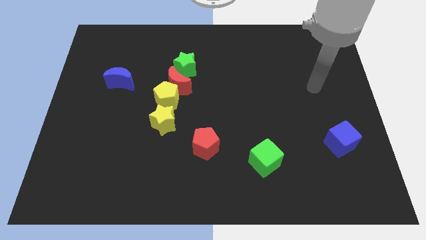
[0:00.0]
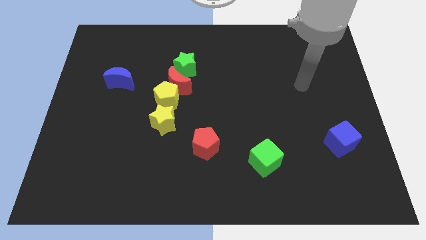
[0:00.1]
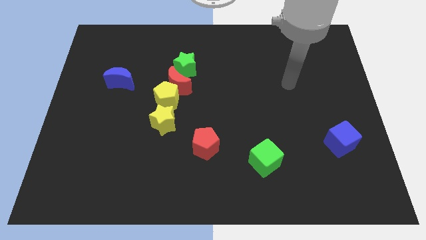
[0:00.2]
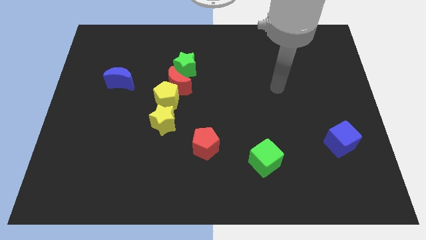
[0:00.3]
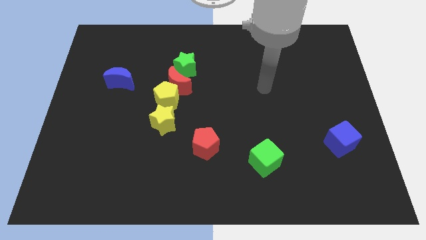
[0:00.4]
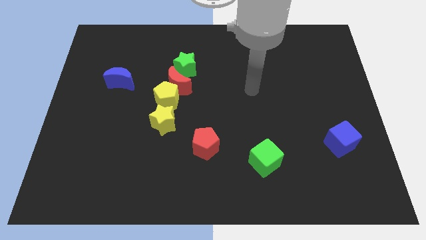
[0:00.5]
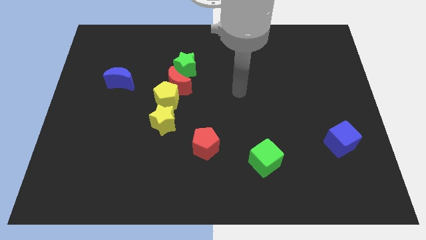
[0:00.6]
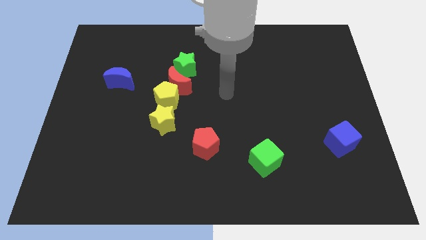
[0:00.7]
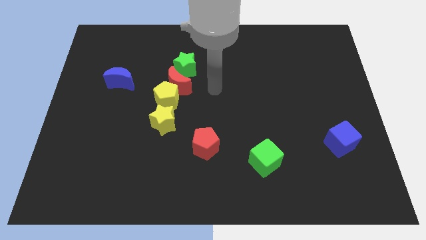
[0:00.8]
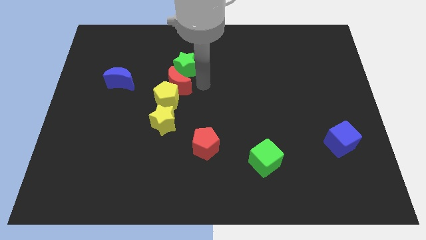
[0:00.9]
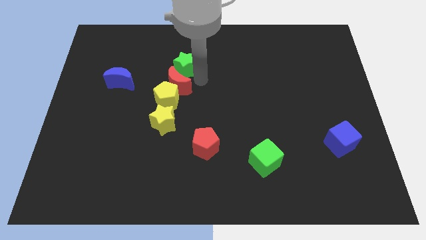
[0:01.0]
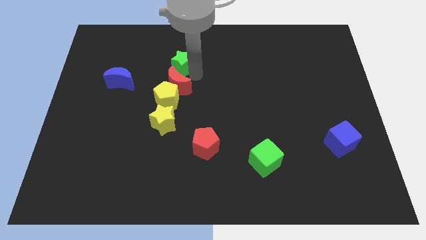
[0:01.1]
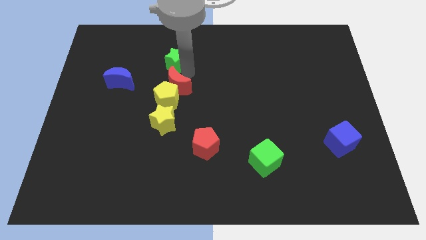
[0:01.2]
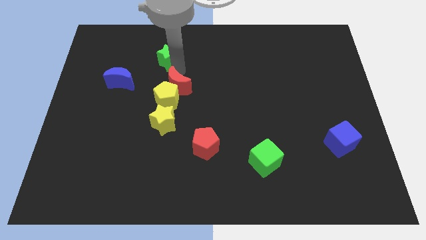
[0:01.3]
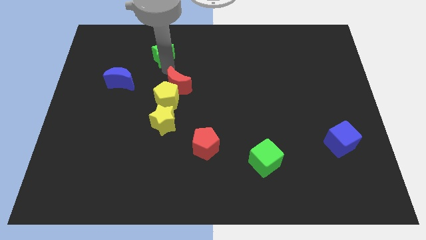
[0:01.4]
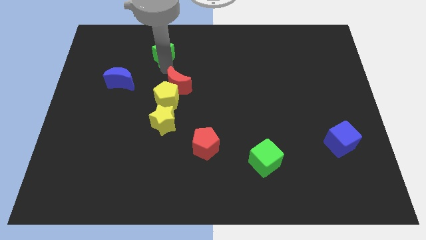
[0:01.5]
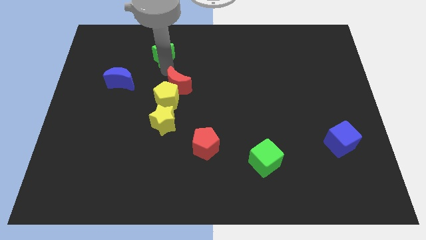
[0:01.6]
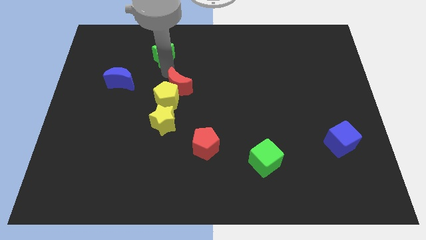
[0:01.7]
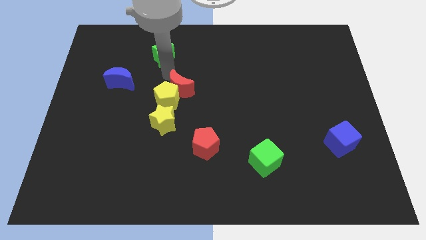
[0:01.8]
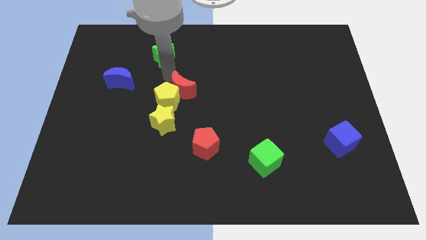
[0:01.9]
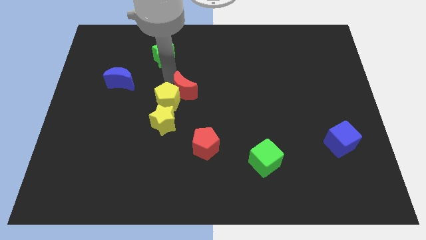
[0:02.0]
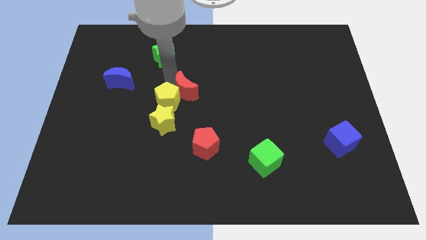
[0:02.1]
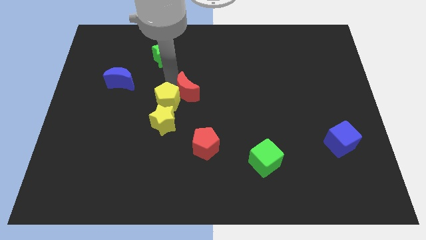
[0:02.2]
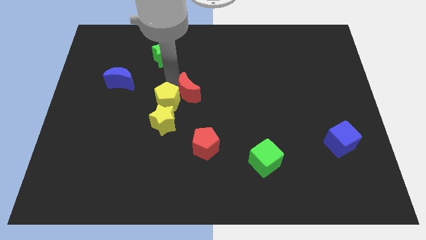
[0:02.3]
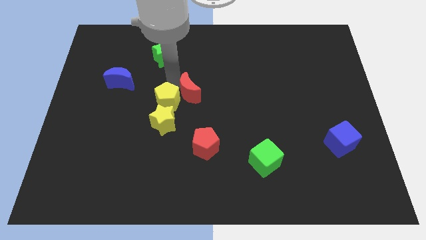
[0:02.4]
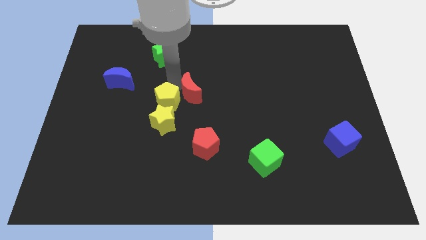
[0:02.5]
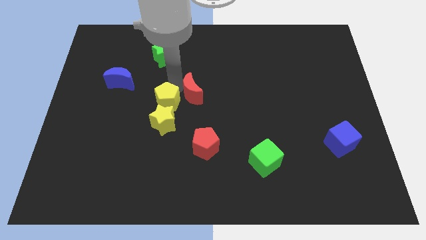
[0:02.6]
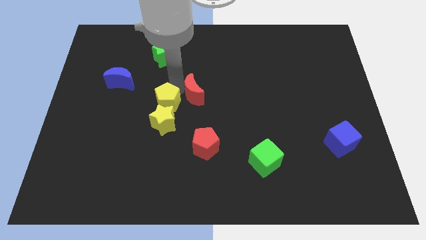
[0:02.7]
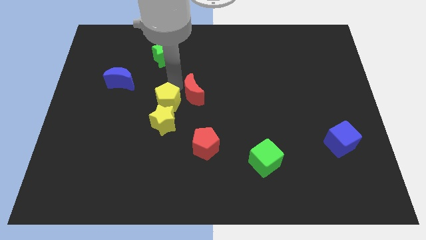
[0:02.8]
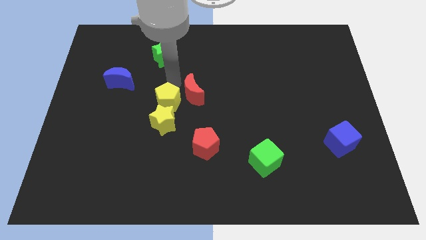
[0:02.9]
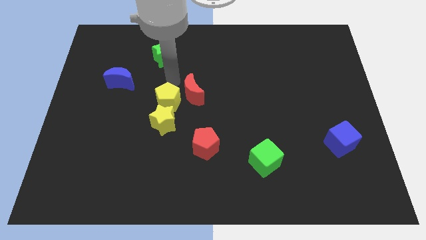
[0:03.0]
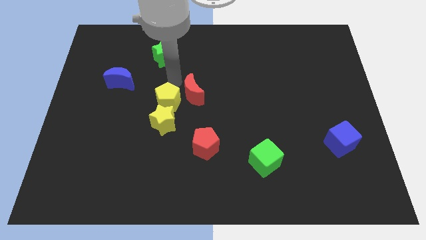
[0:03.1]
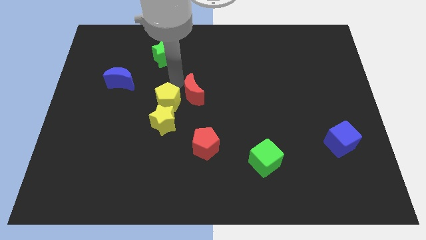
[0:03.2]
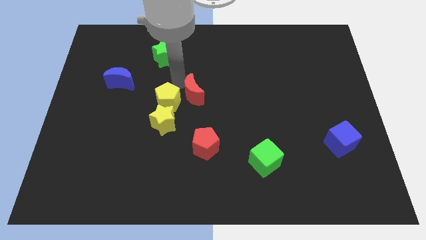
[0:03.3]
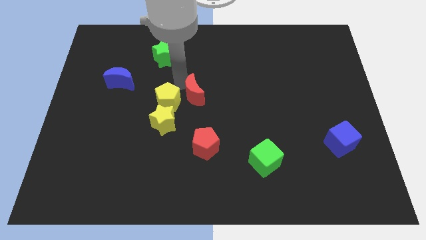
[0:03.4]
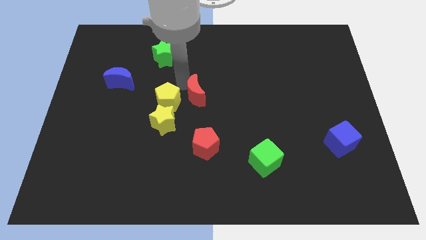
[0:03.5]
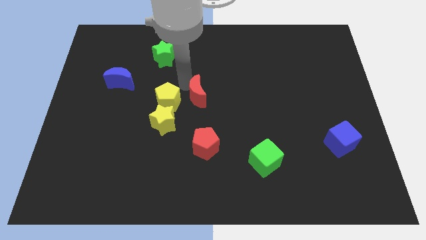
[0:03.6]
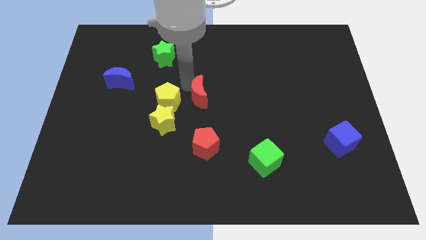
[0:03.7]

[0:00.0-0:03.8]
separate the red moon from the yellow pentagon and green star

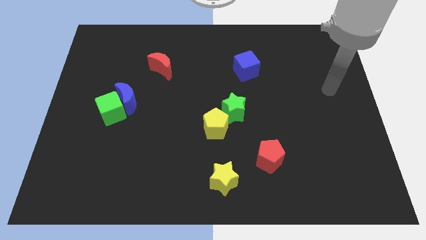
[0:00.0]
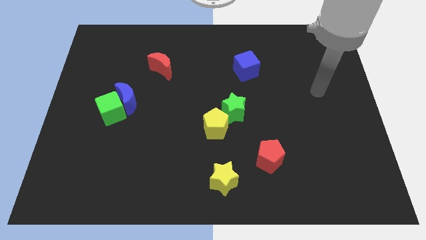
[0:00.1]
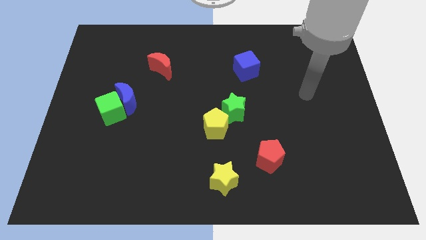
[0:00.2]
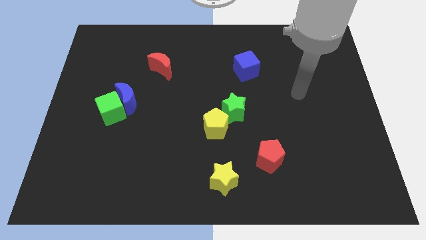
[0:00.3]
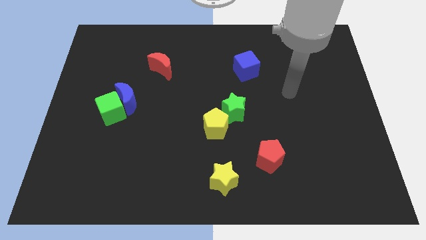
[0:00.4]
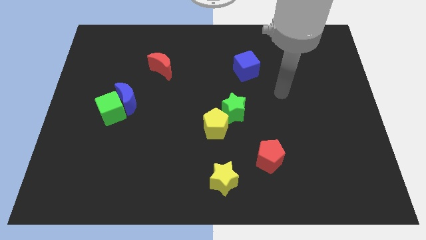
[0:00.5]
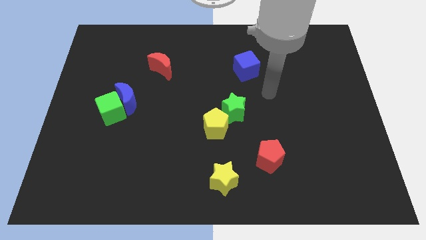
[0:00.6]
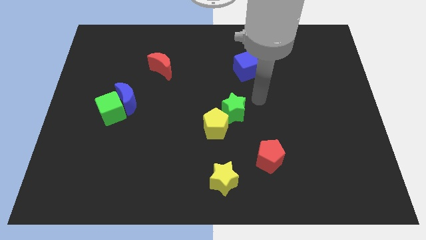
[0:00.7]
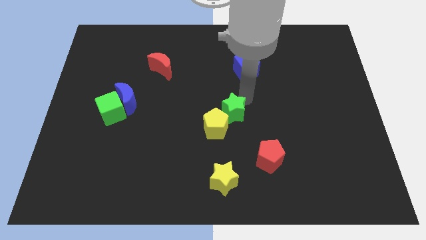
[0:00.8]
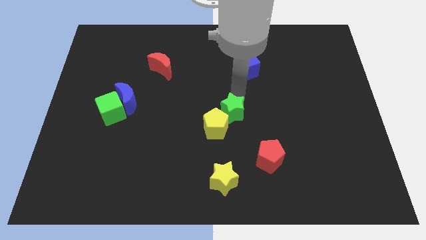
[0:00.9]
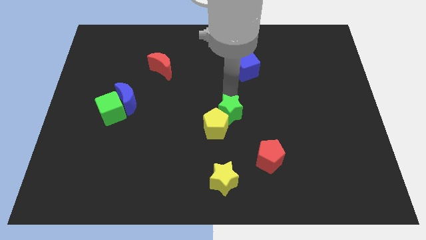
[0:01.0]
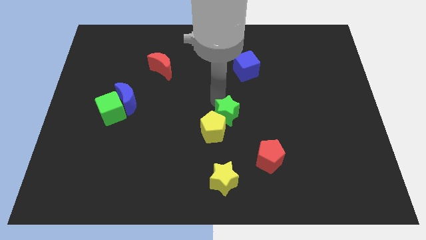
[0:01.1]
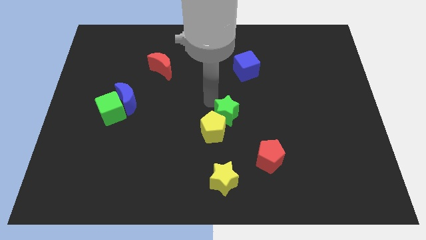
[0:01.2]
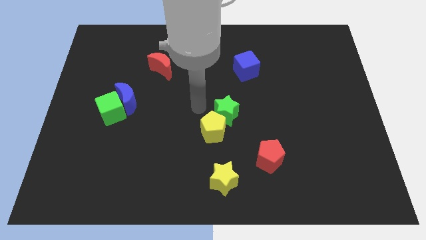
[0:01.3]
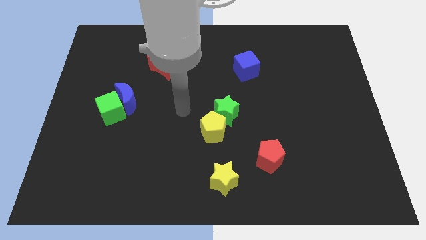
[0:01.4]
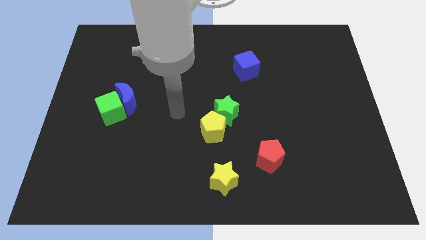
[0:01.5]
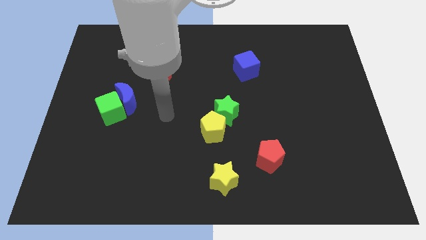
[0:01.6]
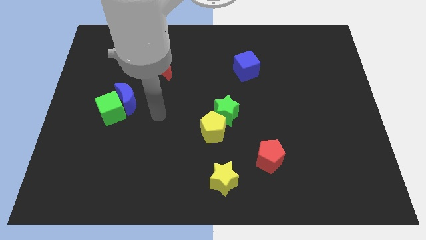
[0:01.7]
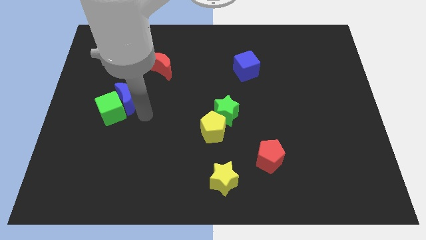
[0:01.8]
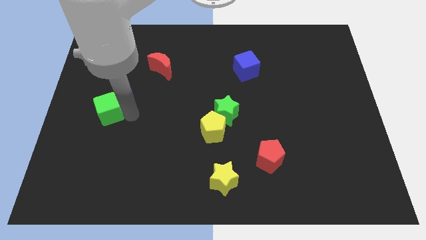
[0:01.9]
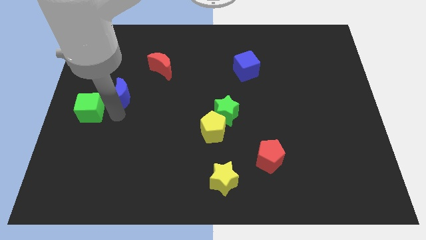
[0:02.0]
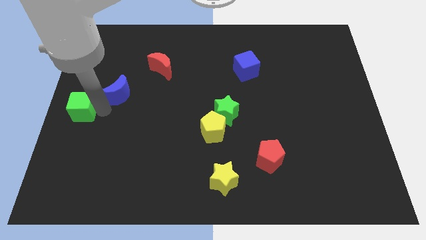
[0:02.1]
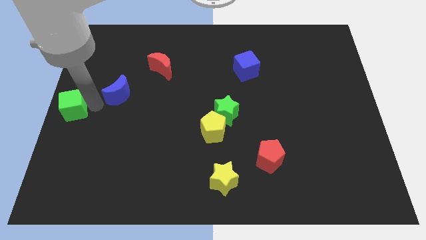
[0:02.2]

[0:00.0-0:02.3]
separate the blue moon from the green cube

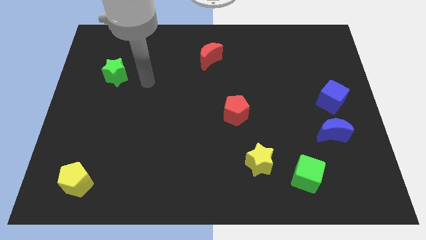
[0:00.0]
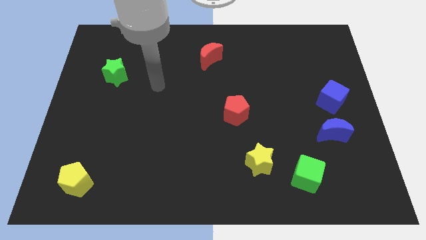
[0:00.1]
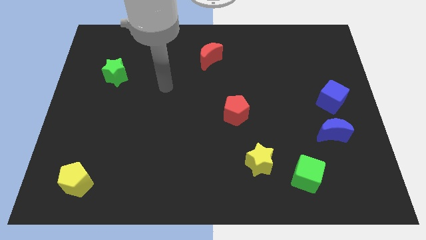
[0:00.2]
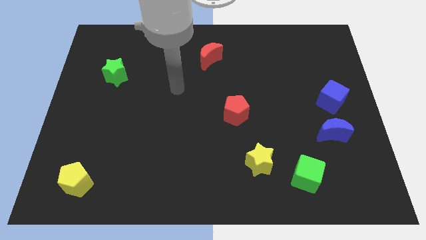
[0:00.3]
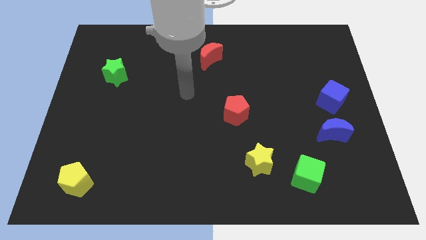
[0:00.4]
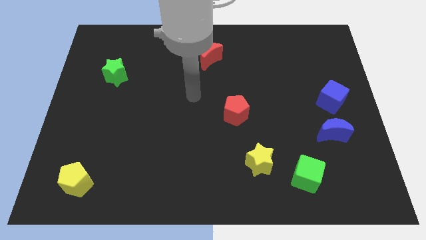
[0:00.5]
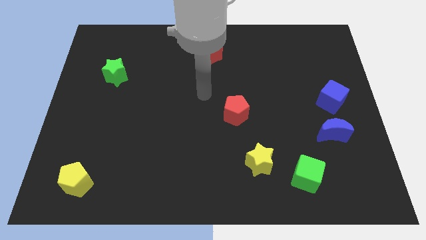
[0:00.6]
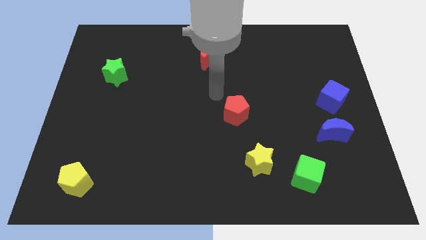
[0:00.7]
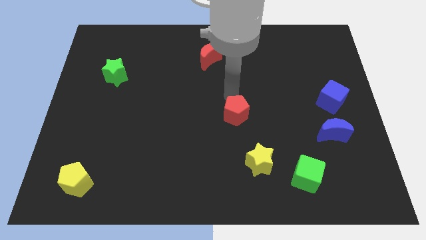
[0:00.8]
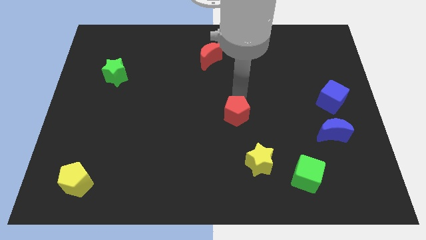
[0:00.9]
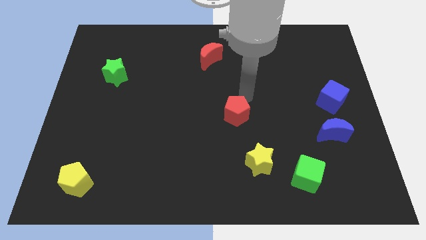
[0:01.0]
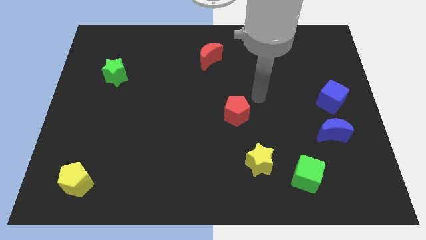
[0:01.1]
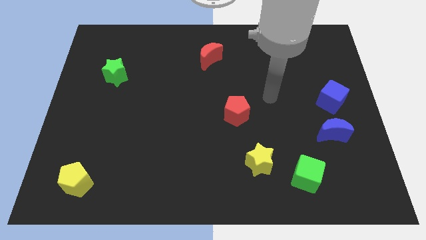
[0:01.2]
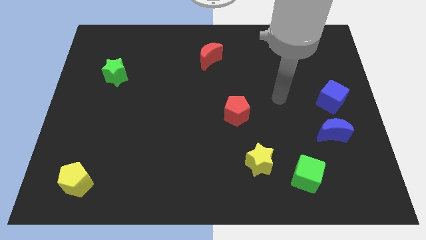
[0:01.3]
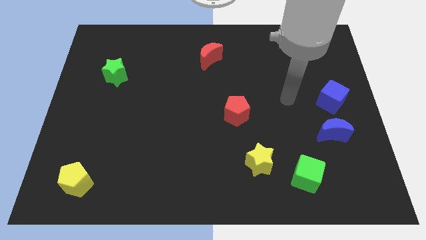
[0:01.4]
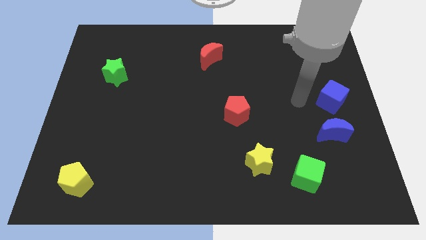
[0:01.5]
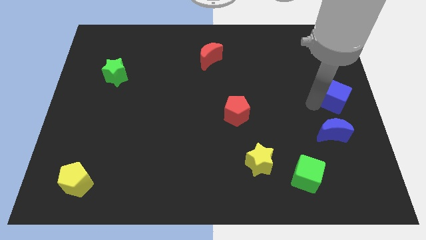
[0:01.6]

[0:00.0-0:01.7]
move the blue moon away from the blue cube

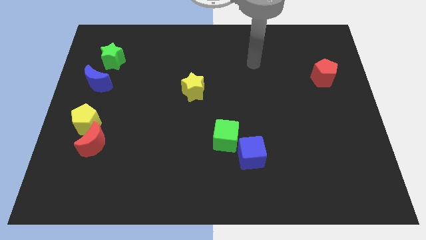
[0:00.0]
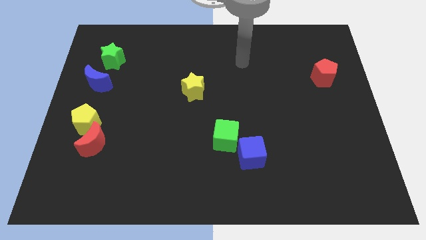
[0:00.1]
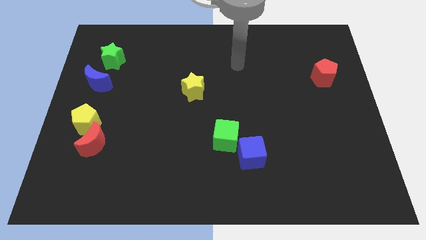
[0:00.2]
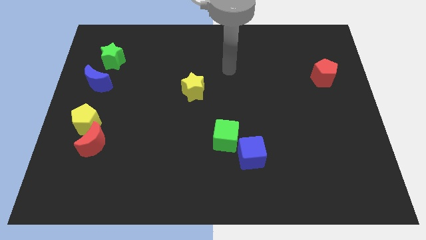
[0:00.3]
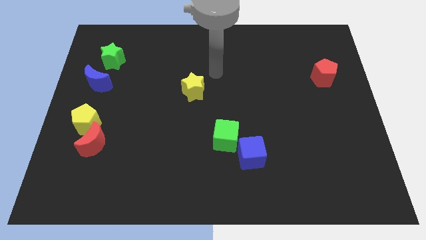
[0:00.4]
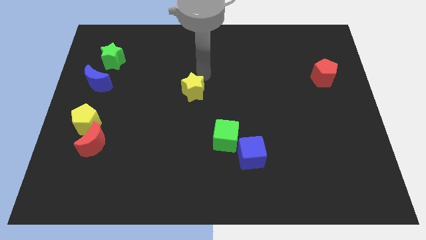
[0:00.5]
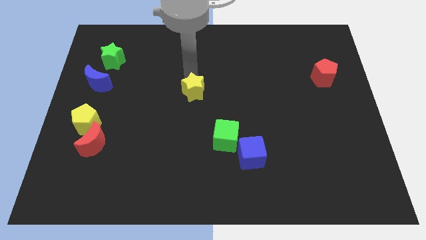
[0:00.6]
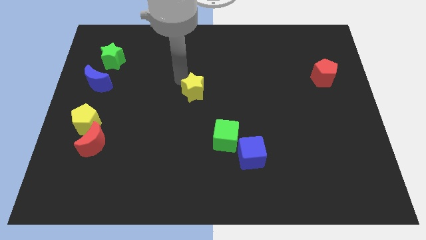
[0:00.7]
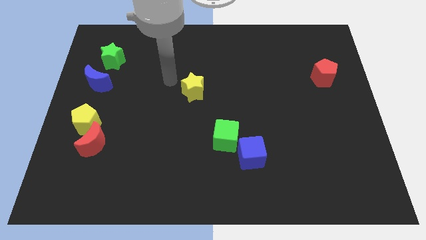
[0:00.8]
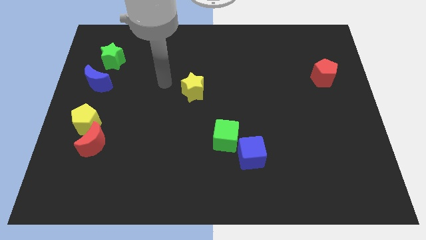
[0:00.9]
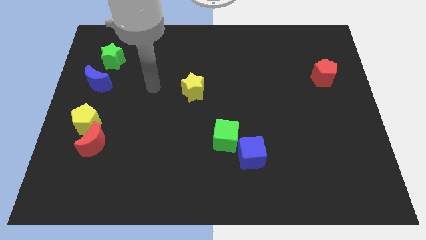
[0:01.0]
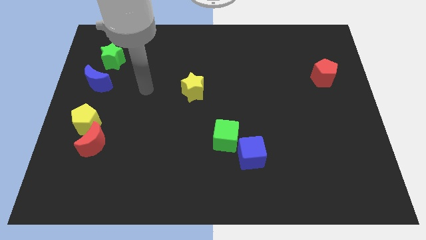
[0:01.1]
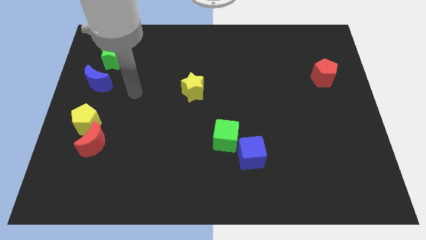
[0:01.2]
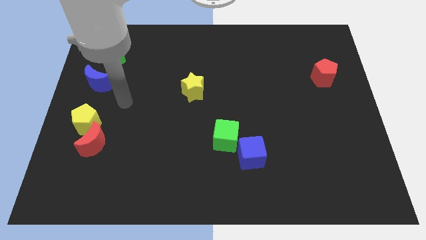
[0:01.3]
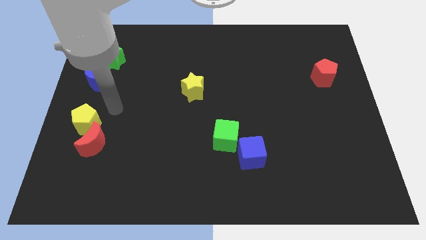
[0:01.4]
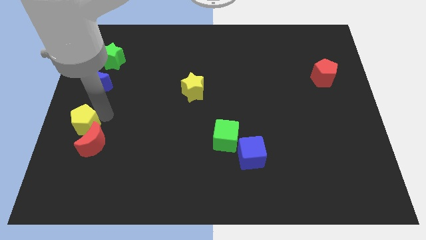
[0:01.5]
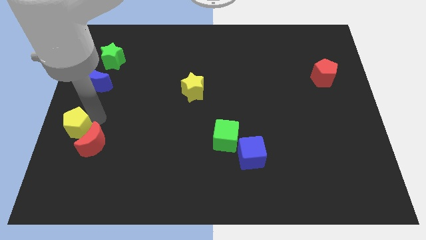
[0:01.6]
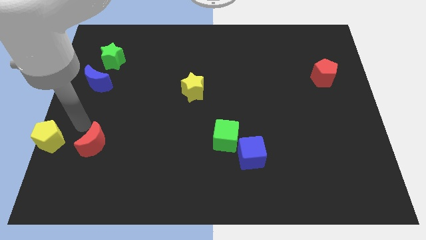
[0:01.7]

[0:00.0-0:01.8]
move the red moon away from the yellow pentagon
